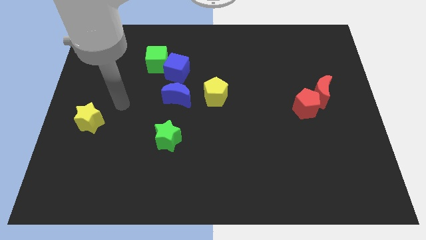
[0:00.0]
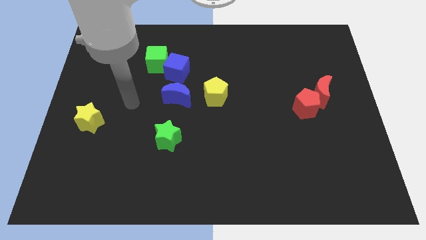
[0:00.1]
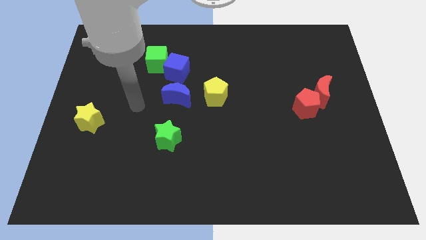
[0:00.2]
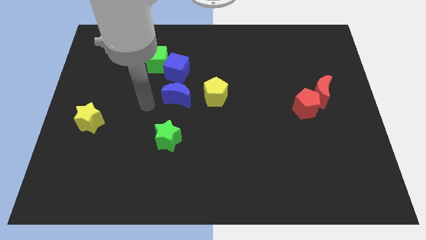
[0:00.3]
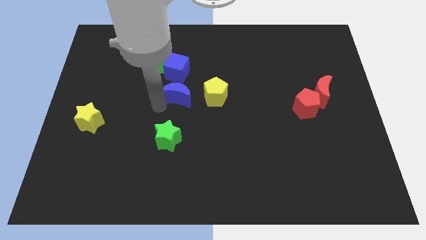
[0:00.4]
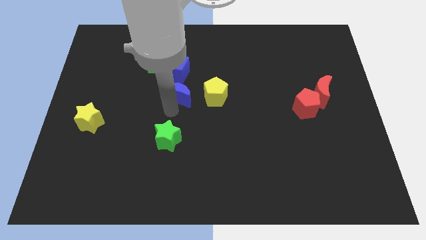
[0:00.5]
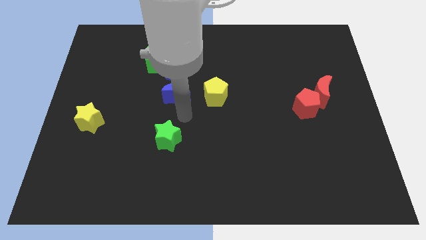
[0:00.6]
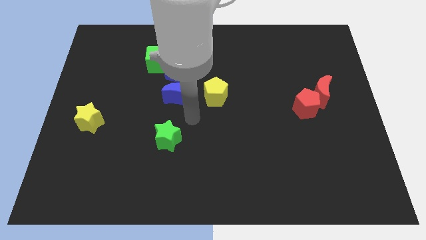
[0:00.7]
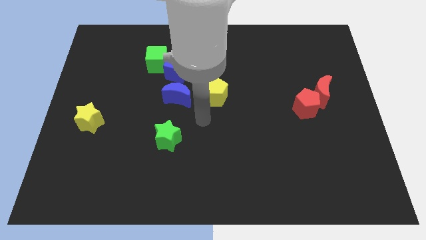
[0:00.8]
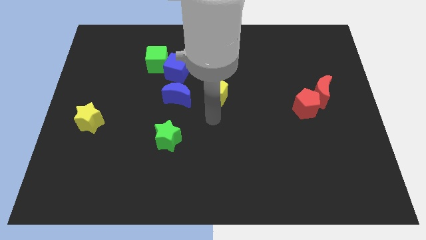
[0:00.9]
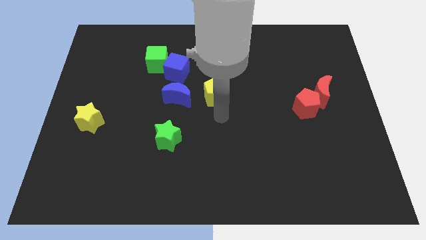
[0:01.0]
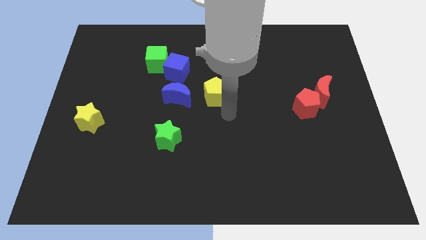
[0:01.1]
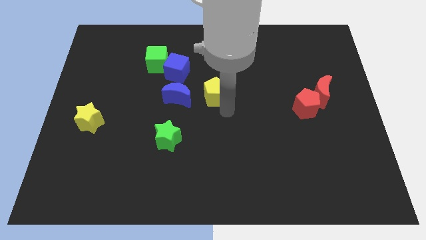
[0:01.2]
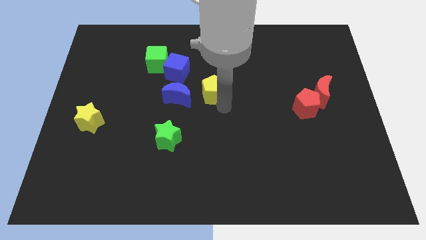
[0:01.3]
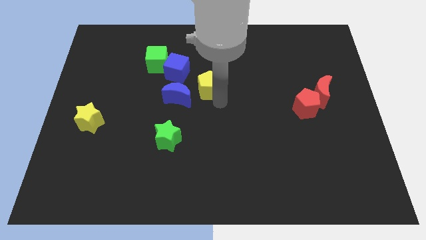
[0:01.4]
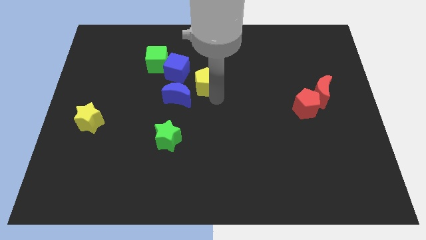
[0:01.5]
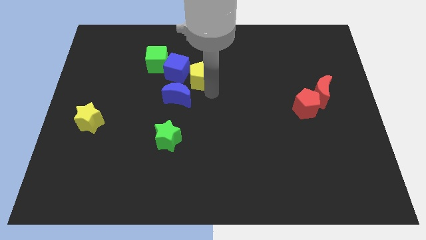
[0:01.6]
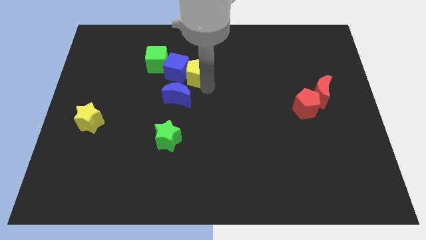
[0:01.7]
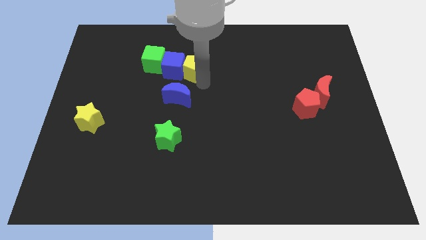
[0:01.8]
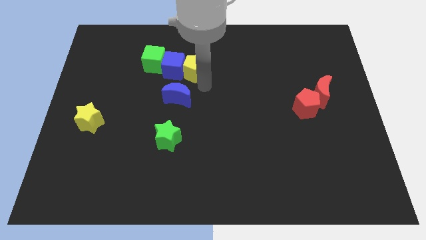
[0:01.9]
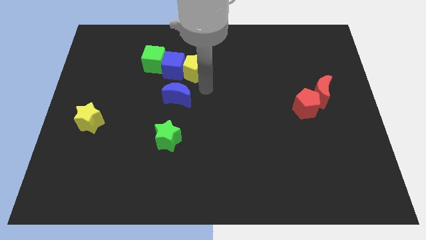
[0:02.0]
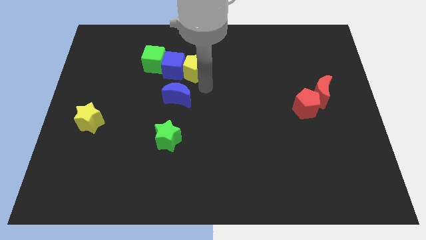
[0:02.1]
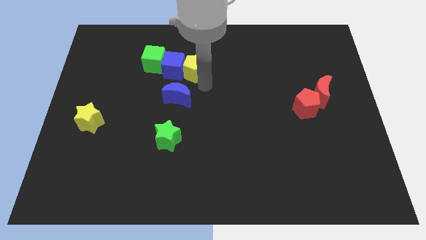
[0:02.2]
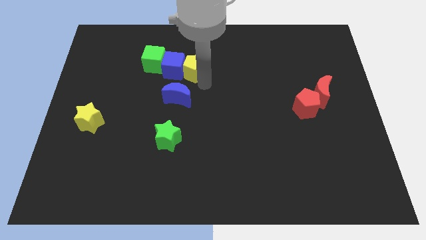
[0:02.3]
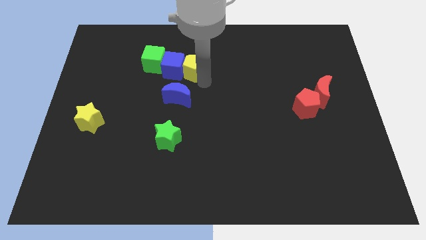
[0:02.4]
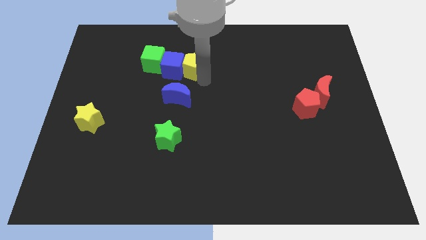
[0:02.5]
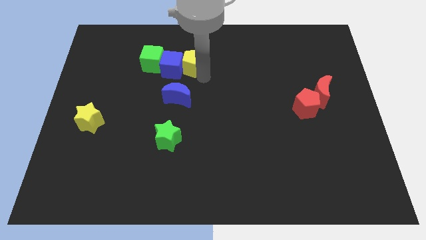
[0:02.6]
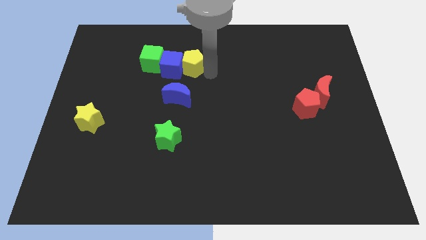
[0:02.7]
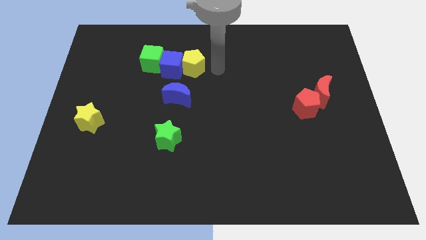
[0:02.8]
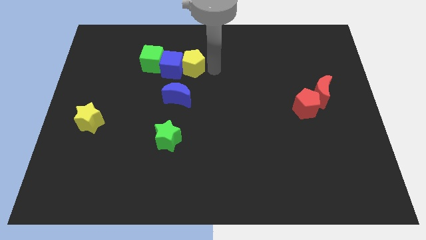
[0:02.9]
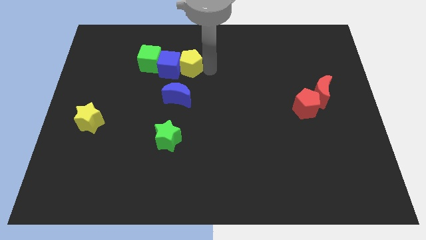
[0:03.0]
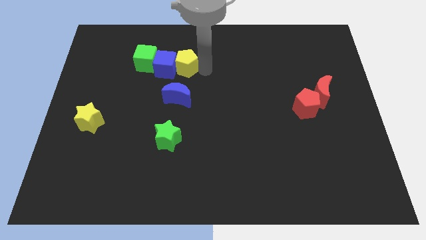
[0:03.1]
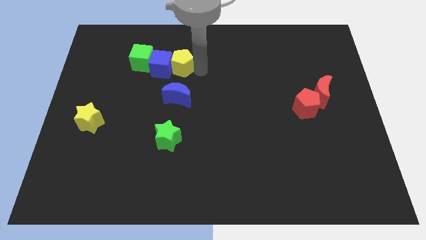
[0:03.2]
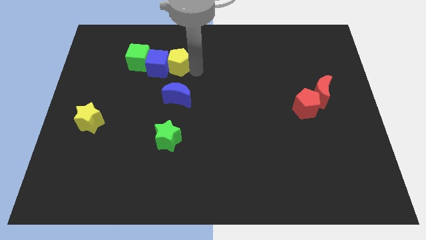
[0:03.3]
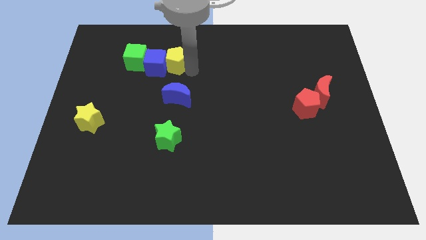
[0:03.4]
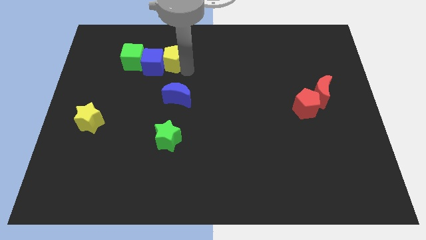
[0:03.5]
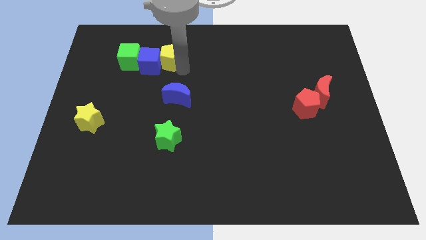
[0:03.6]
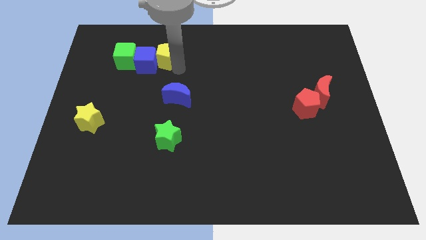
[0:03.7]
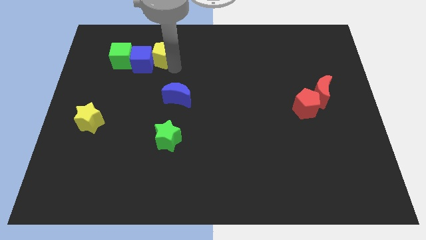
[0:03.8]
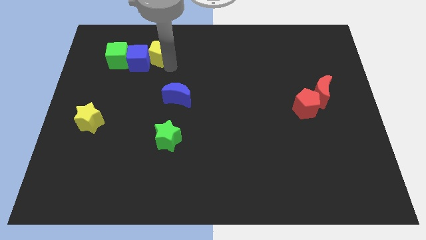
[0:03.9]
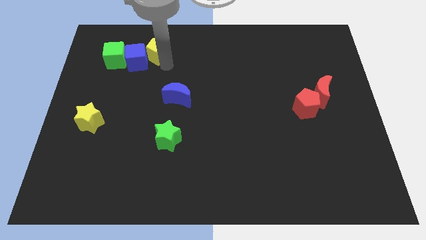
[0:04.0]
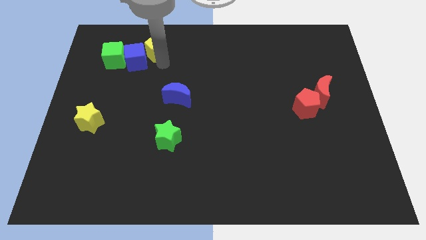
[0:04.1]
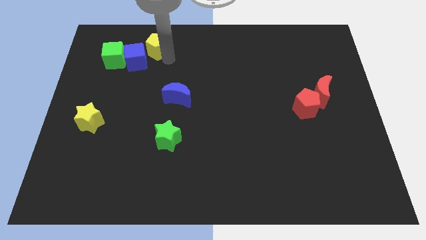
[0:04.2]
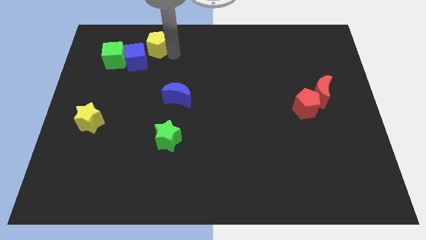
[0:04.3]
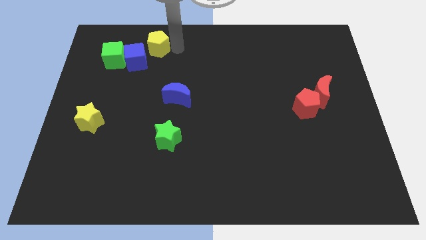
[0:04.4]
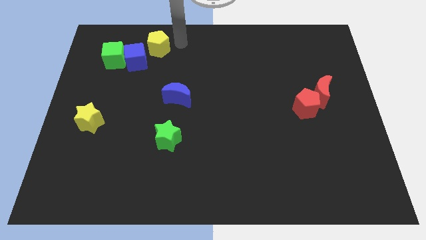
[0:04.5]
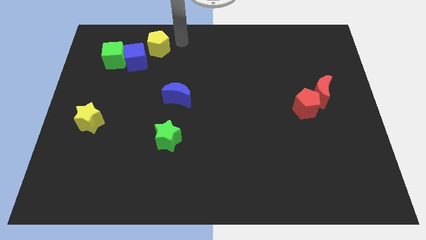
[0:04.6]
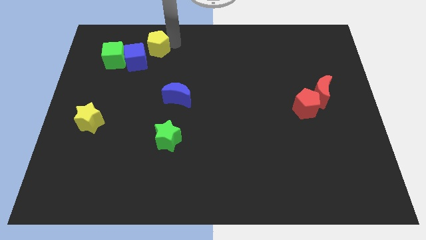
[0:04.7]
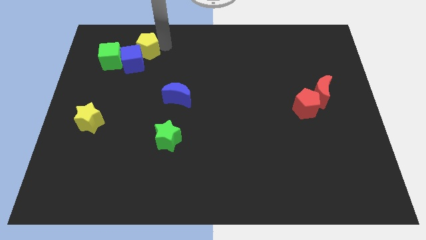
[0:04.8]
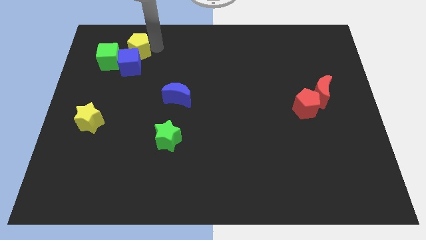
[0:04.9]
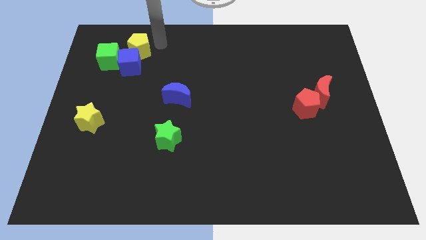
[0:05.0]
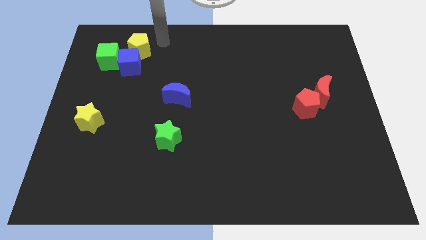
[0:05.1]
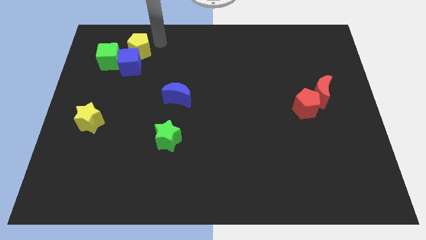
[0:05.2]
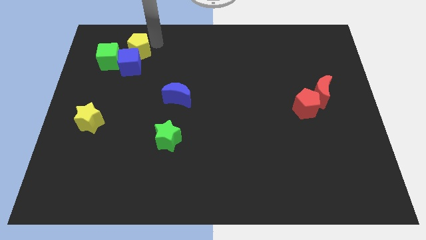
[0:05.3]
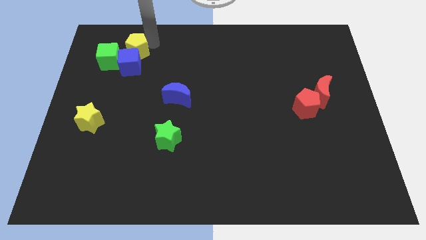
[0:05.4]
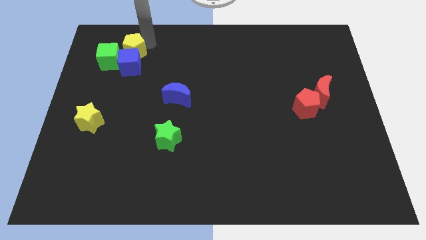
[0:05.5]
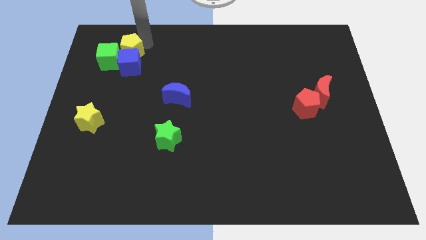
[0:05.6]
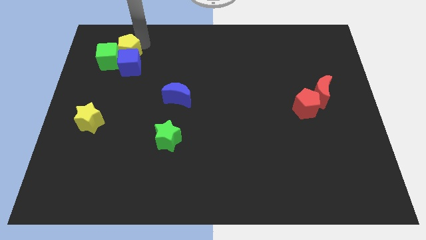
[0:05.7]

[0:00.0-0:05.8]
move the yellow pentagon close to the green cube

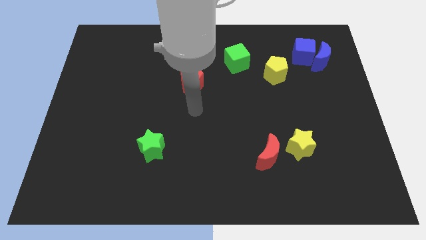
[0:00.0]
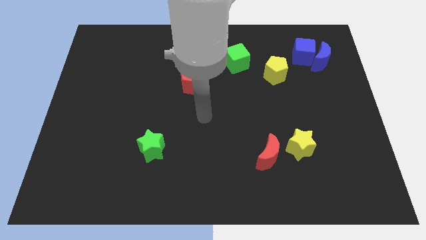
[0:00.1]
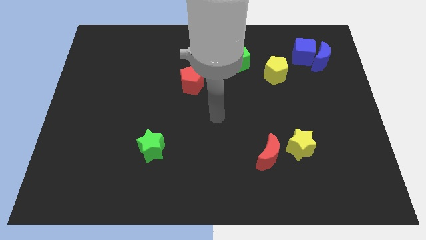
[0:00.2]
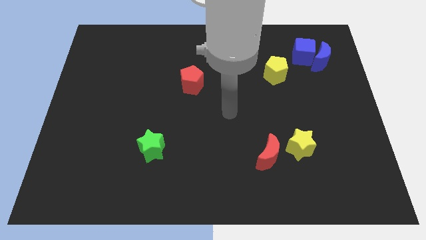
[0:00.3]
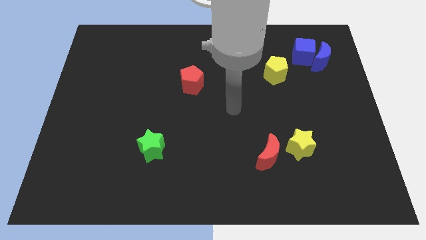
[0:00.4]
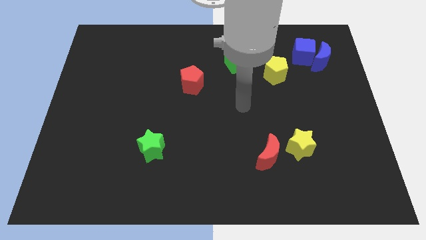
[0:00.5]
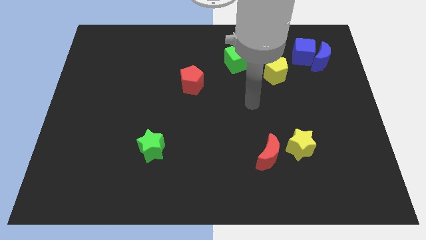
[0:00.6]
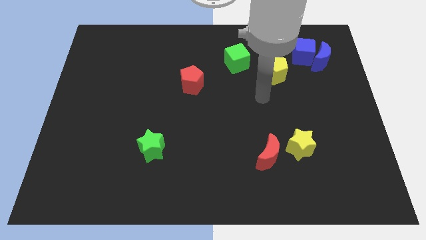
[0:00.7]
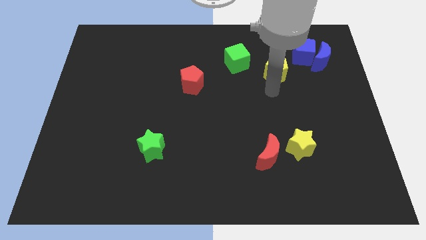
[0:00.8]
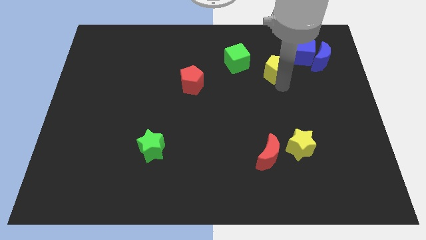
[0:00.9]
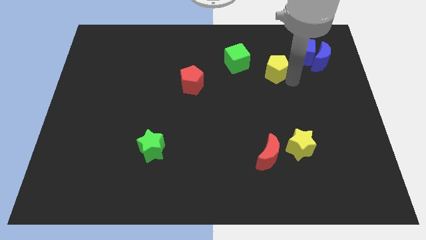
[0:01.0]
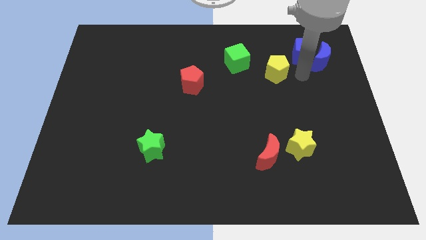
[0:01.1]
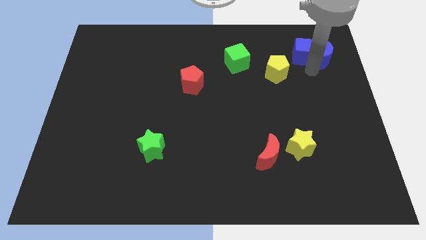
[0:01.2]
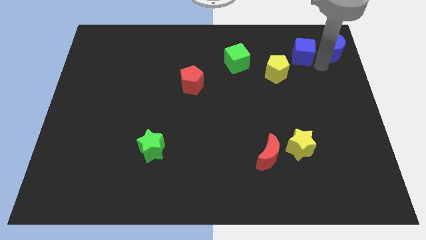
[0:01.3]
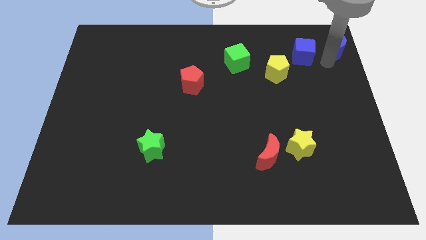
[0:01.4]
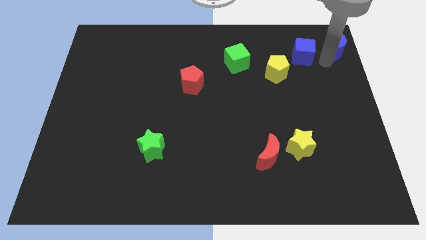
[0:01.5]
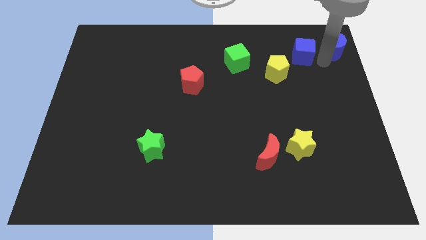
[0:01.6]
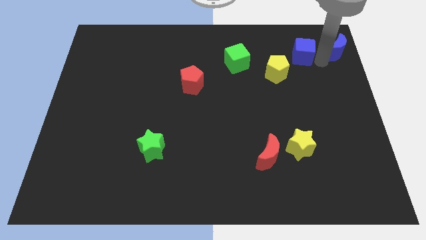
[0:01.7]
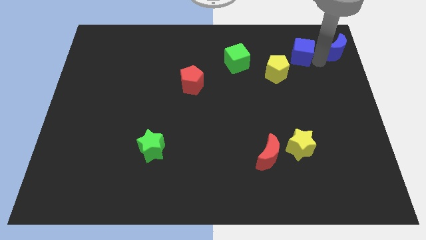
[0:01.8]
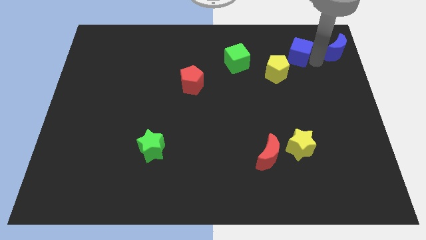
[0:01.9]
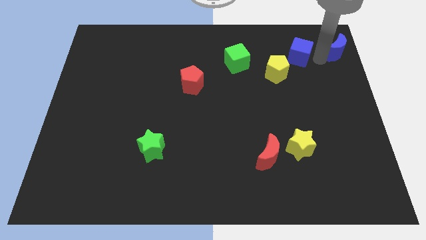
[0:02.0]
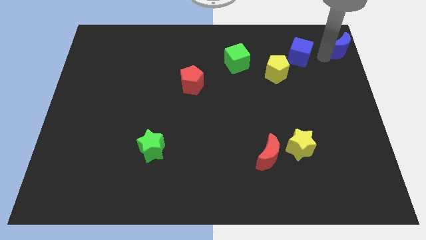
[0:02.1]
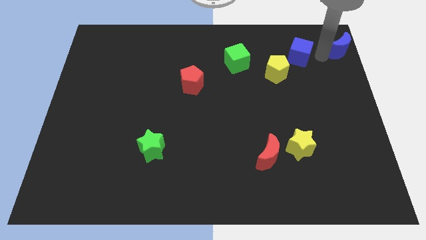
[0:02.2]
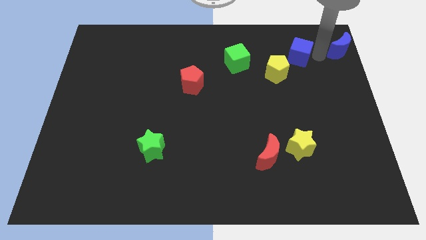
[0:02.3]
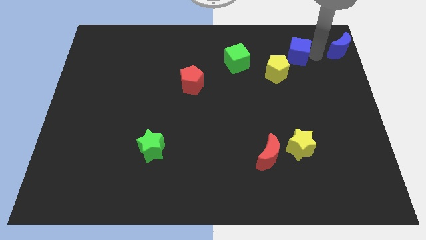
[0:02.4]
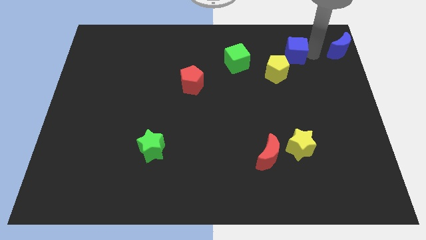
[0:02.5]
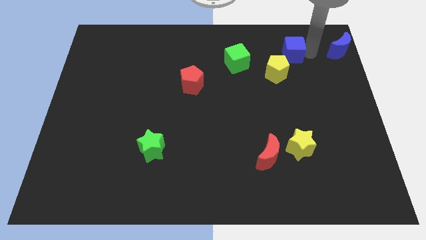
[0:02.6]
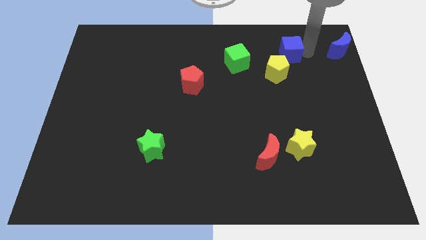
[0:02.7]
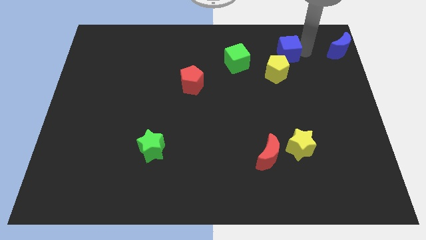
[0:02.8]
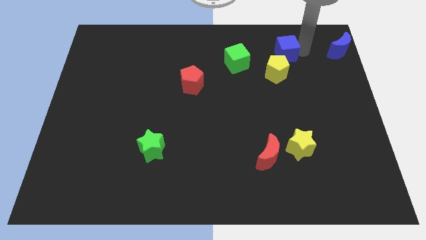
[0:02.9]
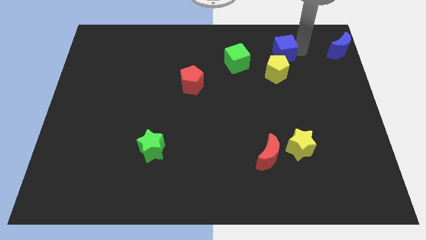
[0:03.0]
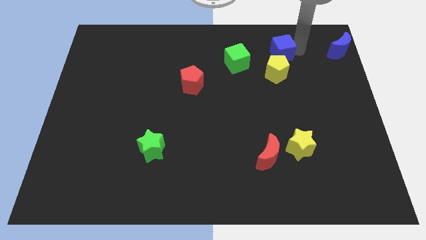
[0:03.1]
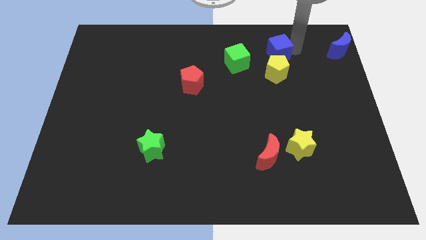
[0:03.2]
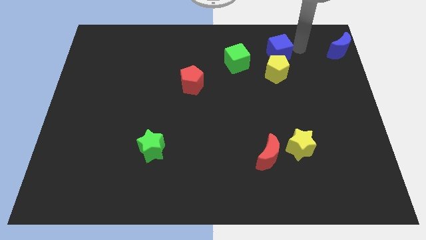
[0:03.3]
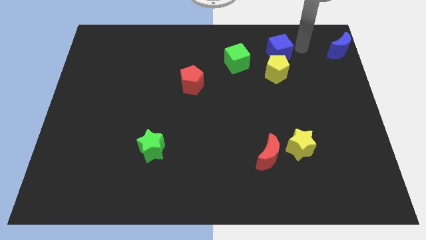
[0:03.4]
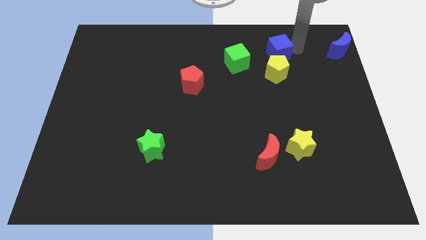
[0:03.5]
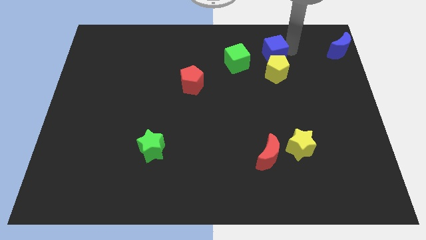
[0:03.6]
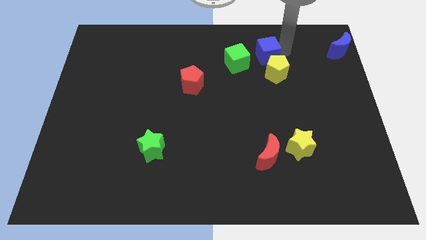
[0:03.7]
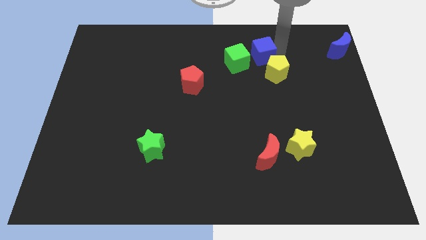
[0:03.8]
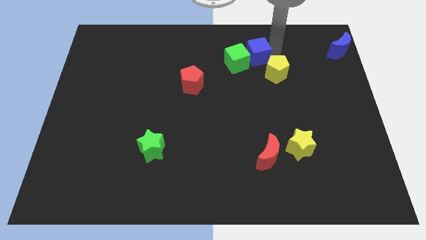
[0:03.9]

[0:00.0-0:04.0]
push the blue cube to the green cube
